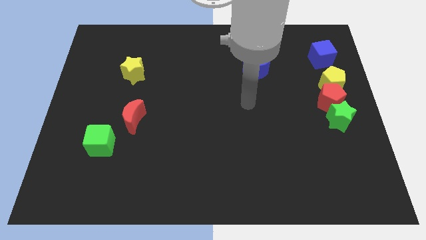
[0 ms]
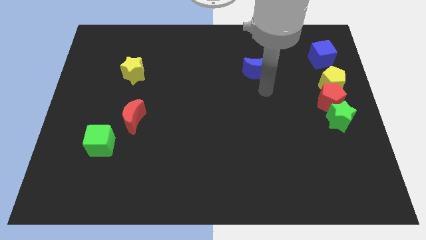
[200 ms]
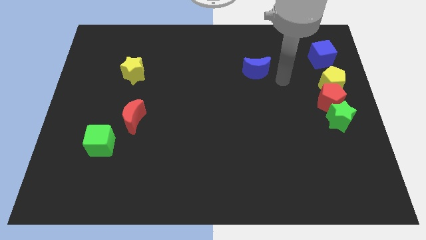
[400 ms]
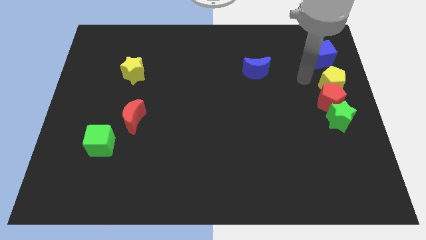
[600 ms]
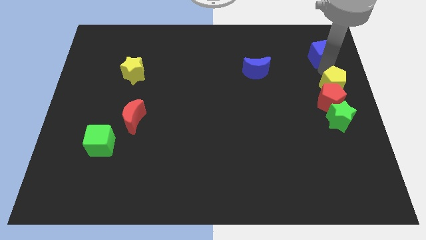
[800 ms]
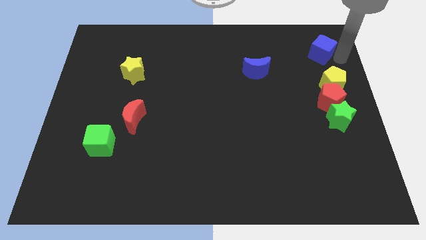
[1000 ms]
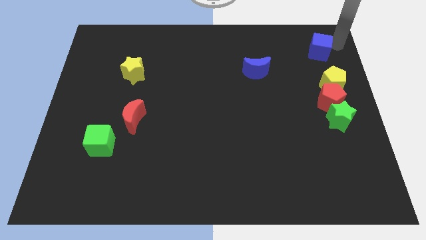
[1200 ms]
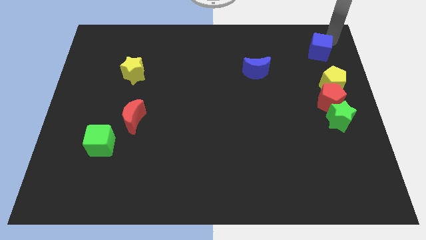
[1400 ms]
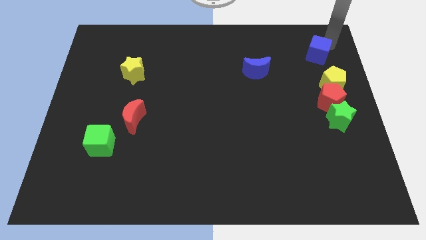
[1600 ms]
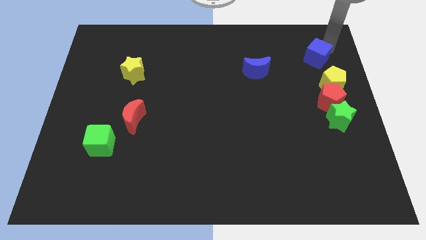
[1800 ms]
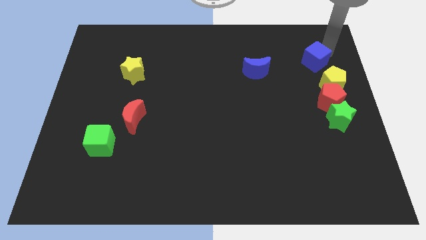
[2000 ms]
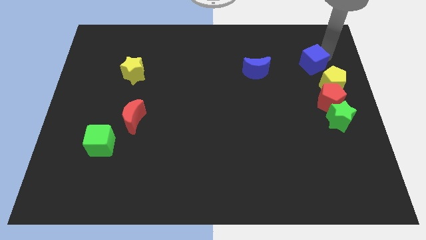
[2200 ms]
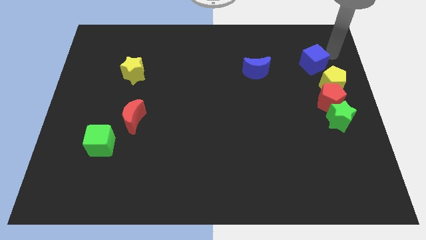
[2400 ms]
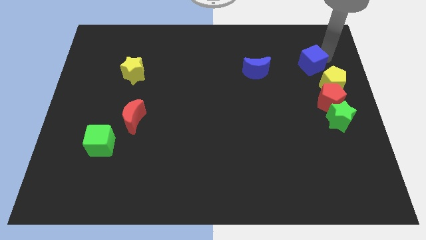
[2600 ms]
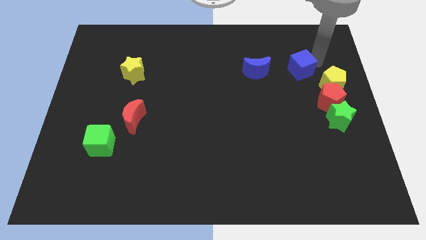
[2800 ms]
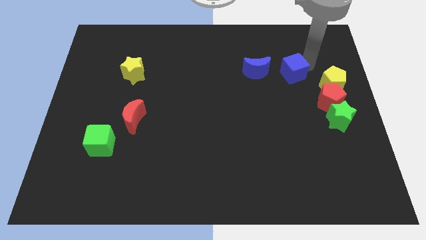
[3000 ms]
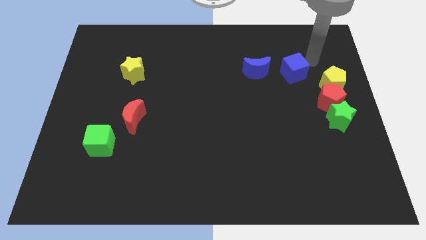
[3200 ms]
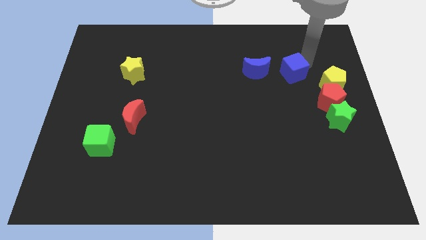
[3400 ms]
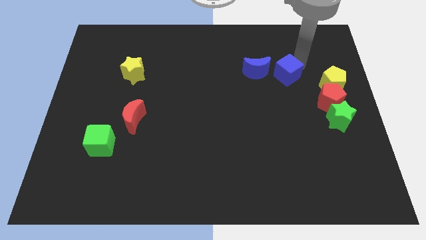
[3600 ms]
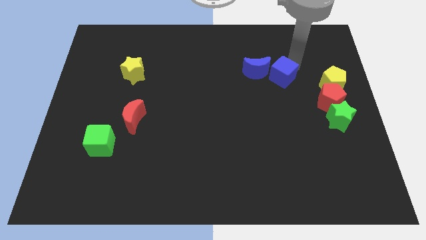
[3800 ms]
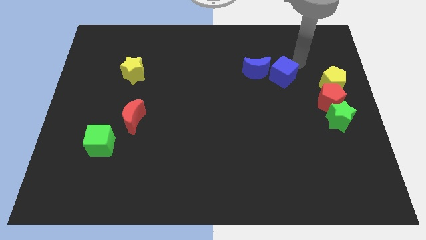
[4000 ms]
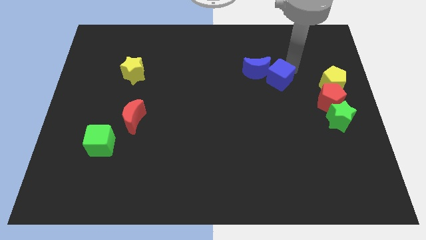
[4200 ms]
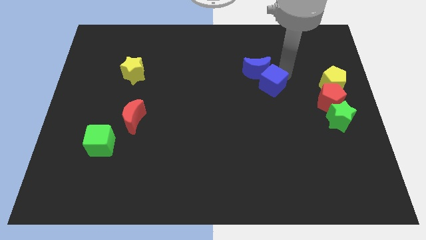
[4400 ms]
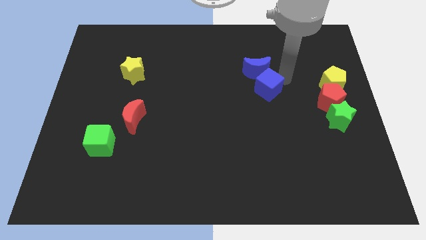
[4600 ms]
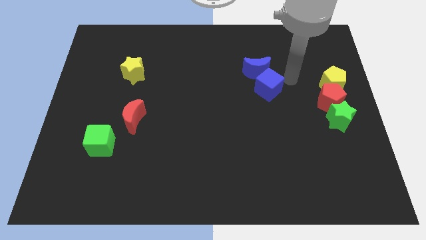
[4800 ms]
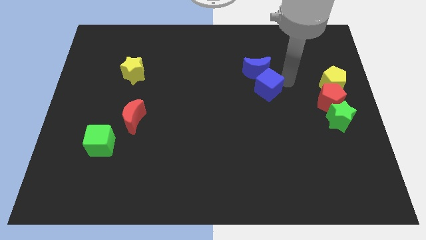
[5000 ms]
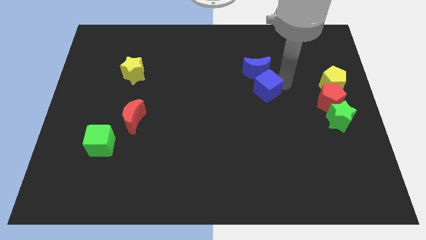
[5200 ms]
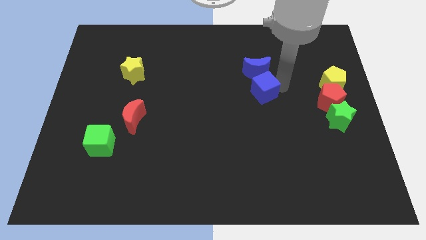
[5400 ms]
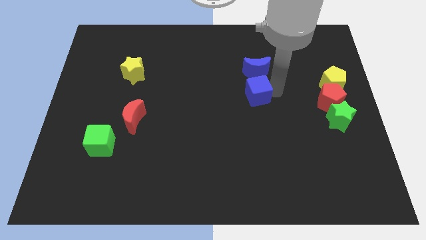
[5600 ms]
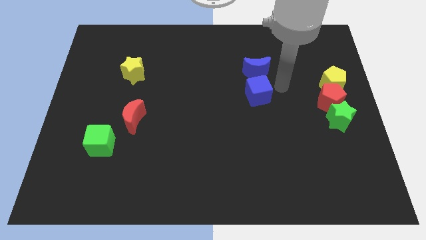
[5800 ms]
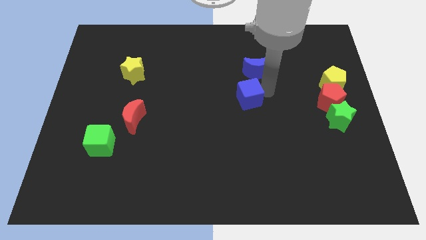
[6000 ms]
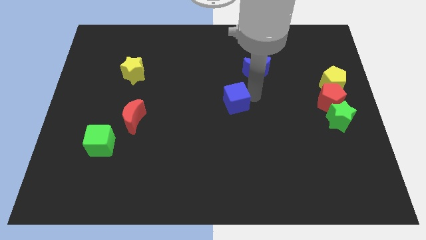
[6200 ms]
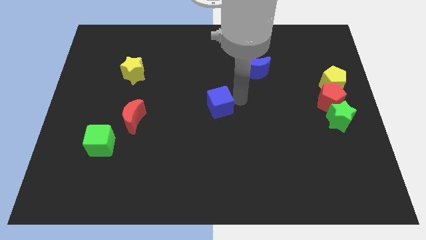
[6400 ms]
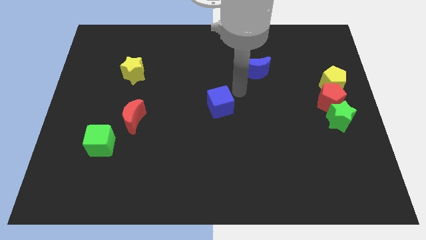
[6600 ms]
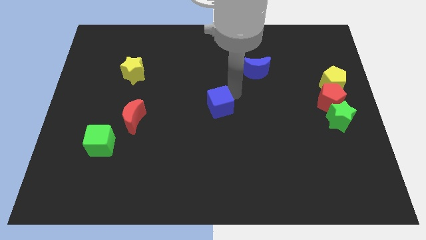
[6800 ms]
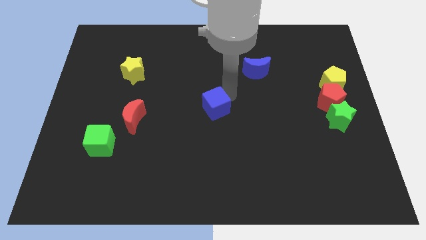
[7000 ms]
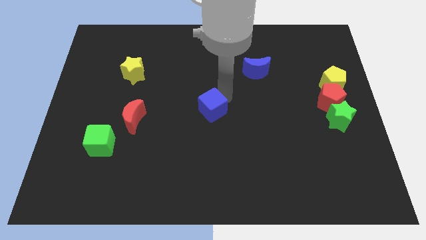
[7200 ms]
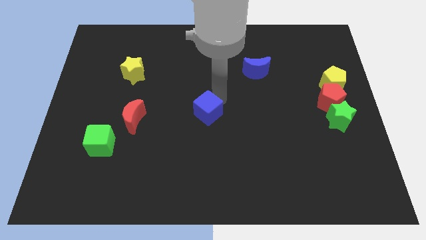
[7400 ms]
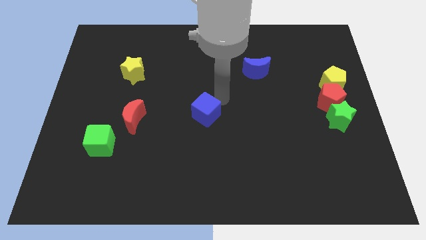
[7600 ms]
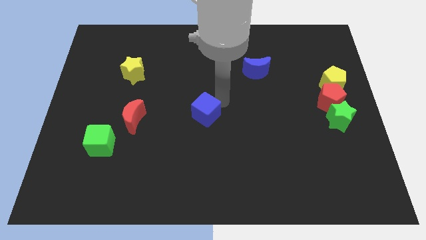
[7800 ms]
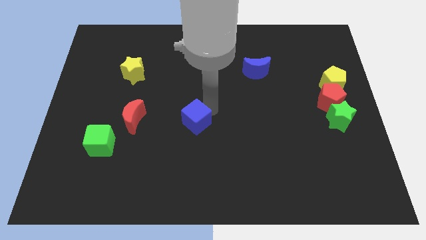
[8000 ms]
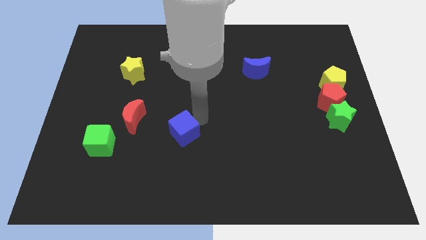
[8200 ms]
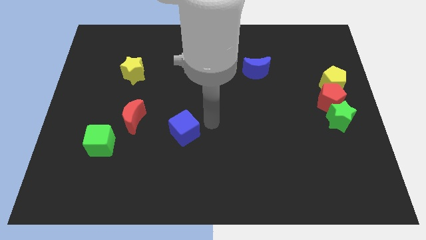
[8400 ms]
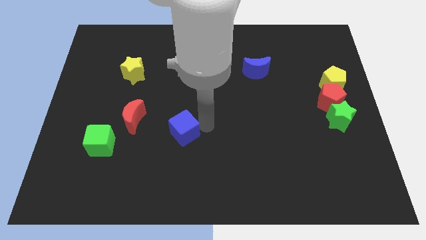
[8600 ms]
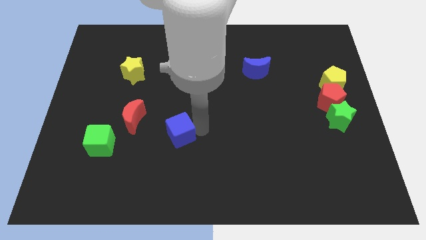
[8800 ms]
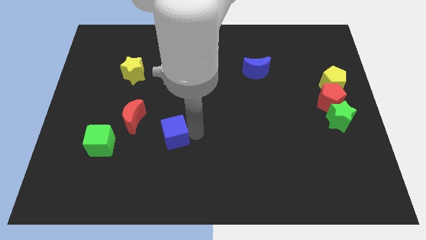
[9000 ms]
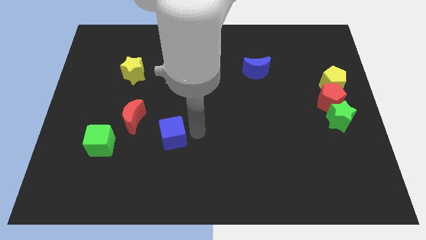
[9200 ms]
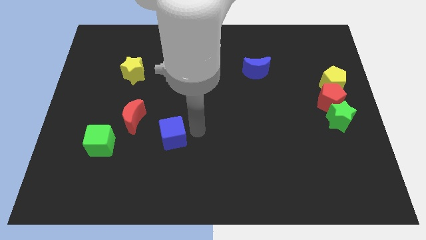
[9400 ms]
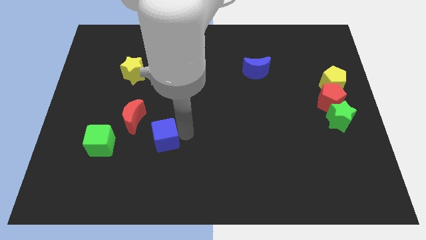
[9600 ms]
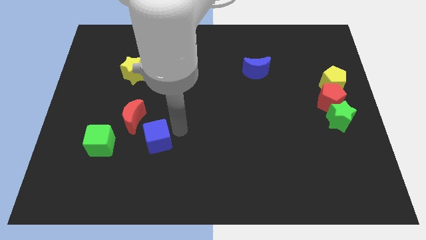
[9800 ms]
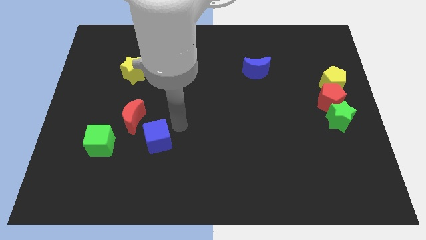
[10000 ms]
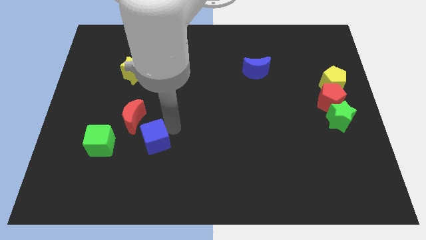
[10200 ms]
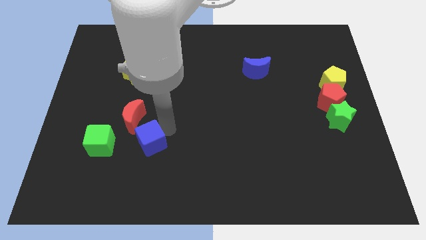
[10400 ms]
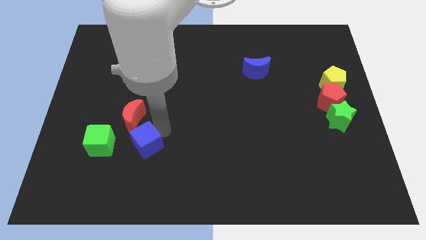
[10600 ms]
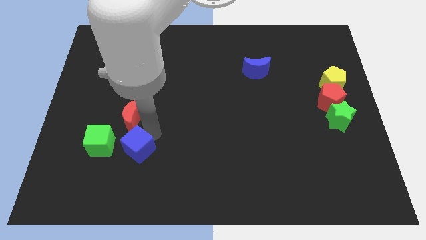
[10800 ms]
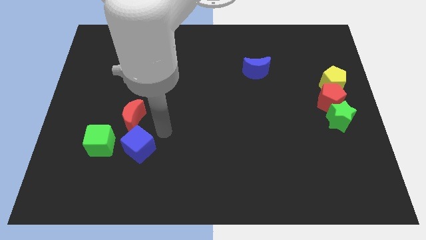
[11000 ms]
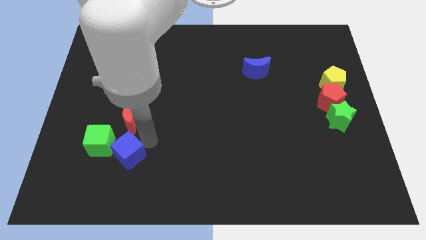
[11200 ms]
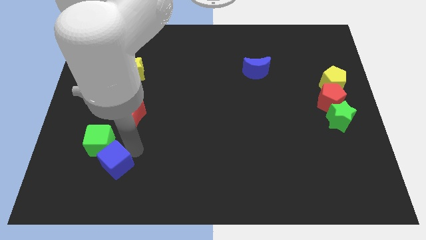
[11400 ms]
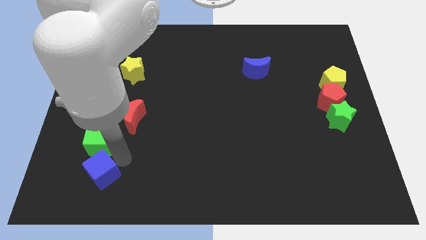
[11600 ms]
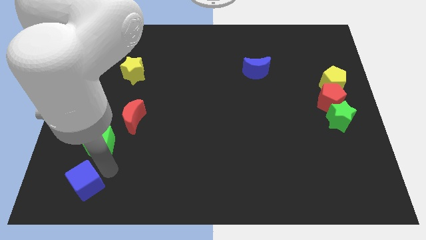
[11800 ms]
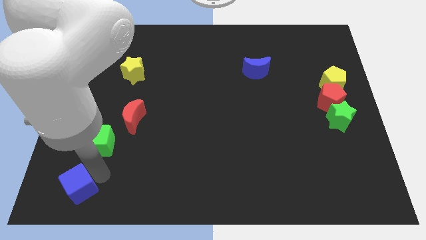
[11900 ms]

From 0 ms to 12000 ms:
put the blue cube to the lower left corner
